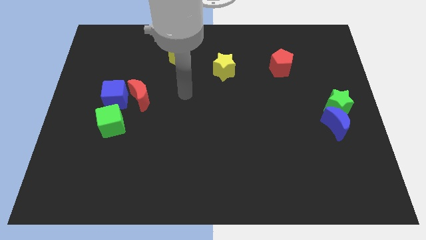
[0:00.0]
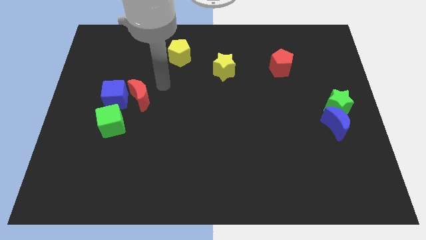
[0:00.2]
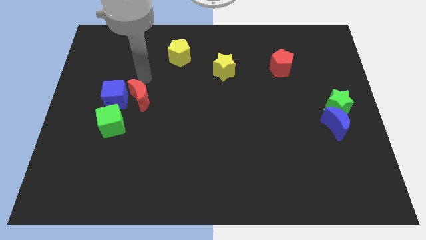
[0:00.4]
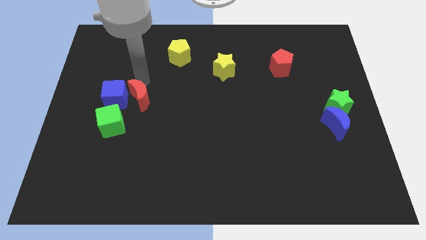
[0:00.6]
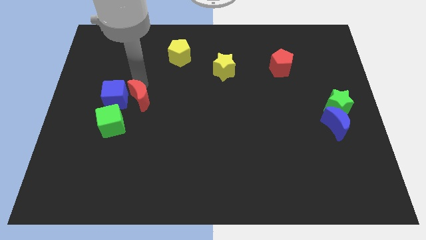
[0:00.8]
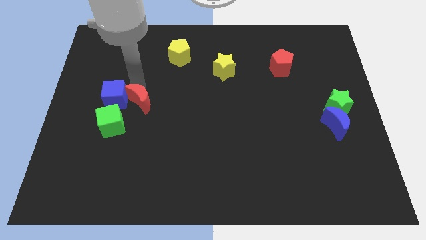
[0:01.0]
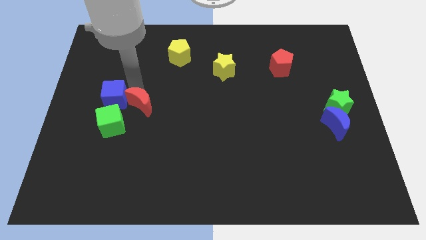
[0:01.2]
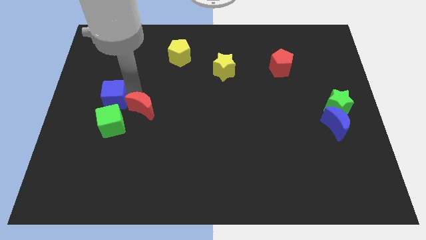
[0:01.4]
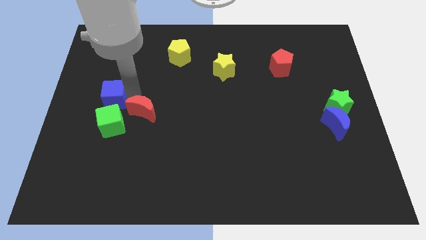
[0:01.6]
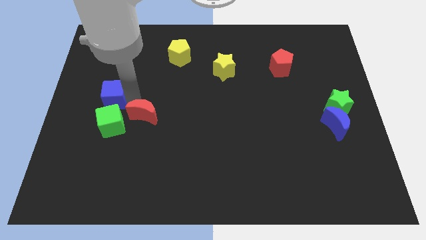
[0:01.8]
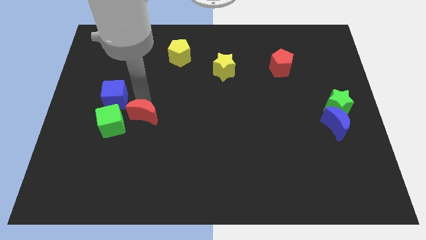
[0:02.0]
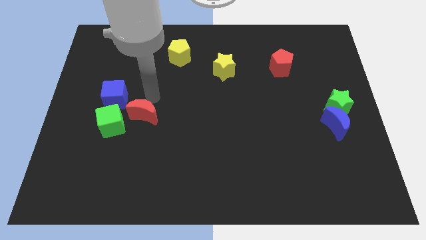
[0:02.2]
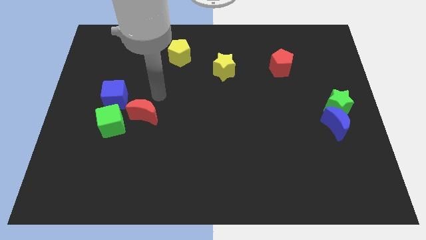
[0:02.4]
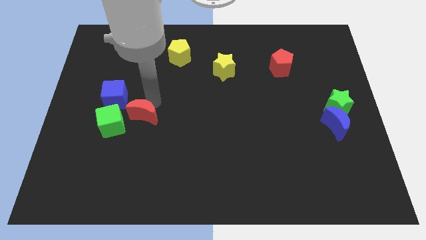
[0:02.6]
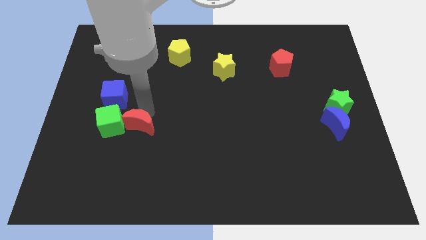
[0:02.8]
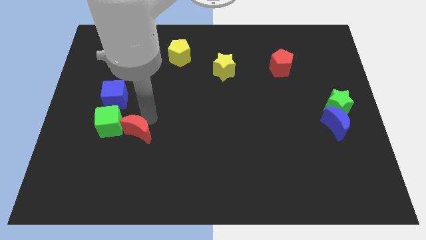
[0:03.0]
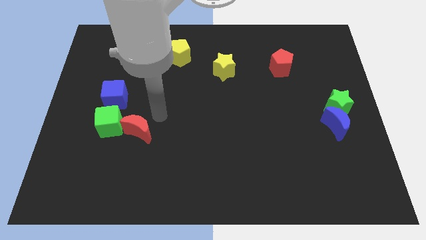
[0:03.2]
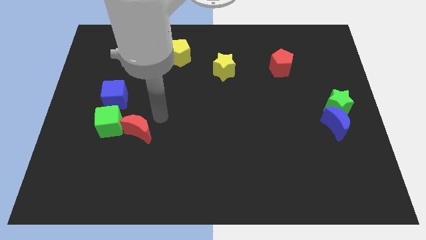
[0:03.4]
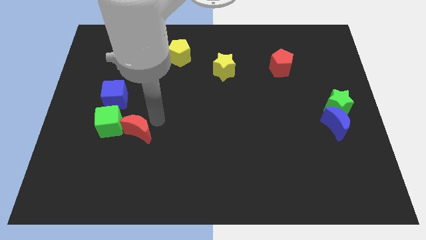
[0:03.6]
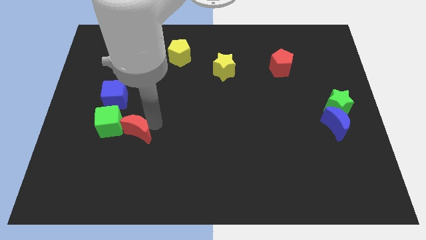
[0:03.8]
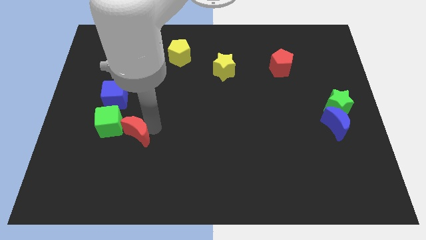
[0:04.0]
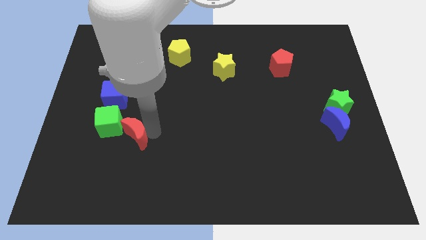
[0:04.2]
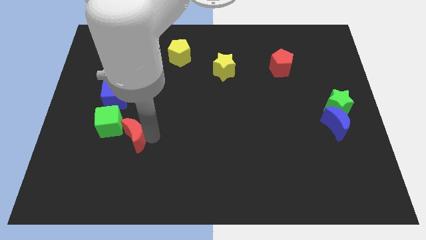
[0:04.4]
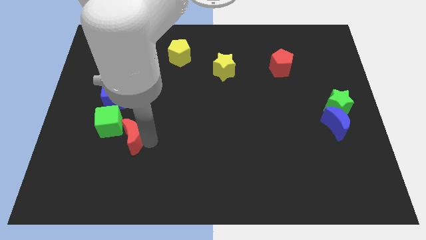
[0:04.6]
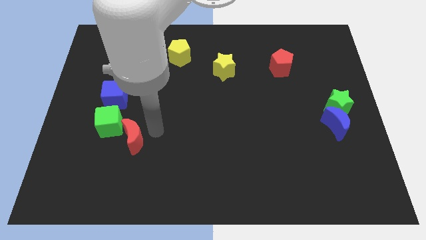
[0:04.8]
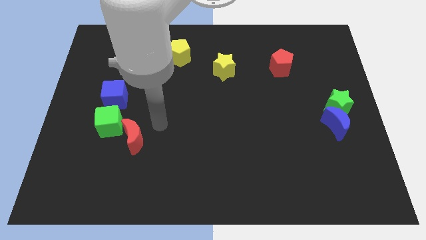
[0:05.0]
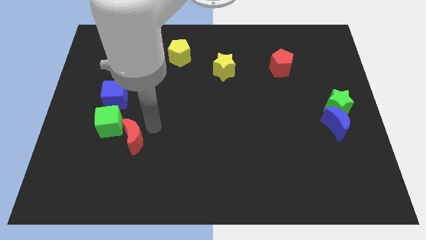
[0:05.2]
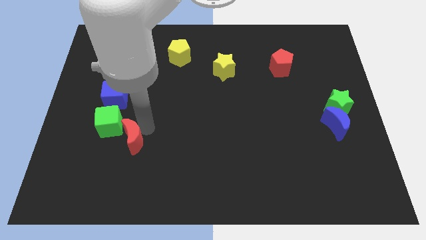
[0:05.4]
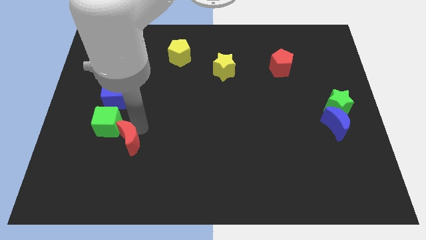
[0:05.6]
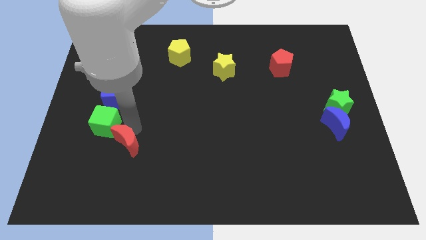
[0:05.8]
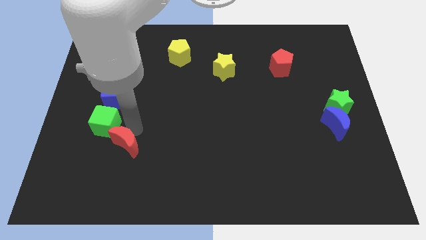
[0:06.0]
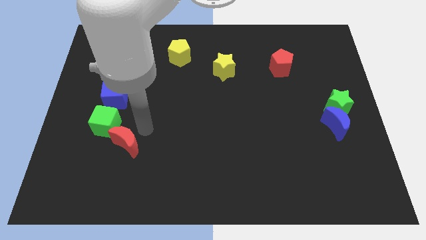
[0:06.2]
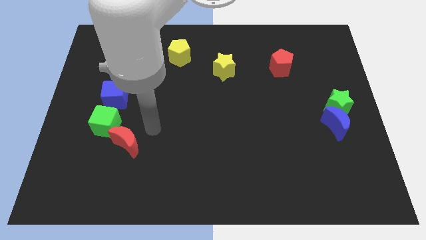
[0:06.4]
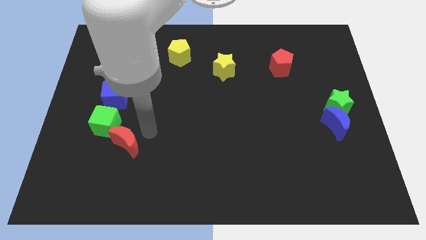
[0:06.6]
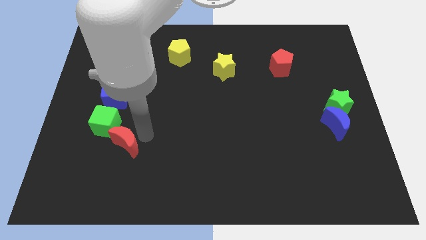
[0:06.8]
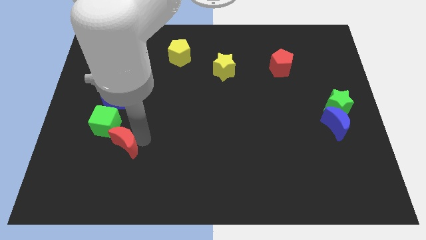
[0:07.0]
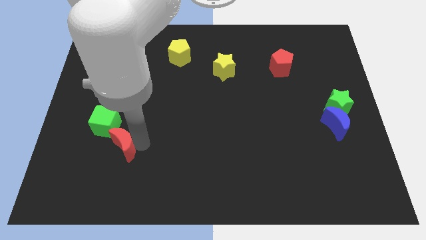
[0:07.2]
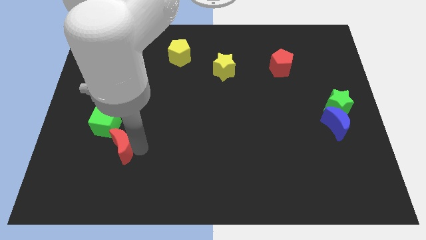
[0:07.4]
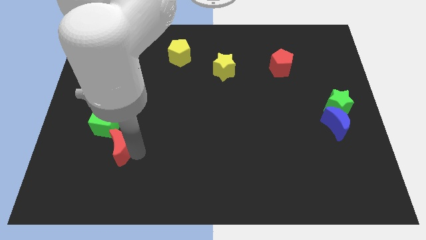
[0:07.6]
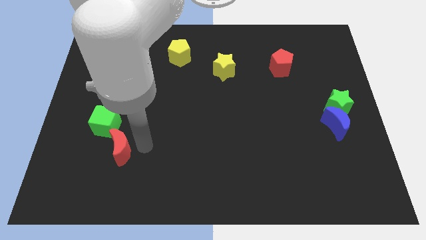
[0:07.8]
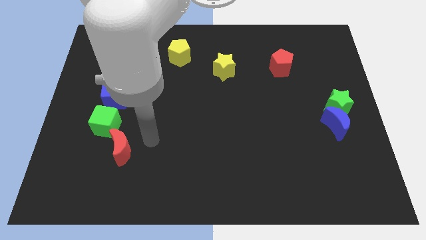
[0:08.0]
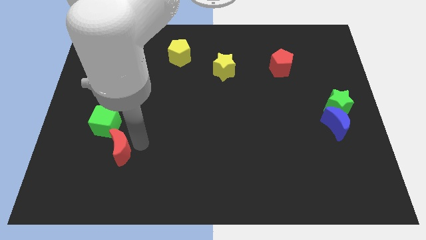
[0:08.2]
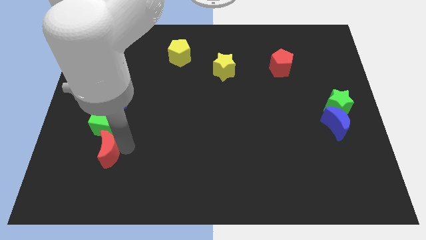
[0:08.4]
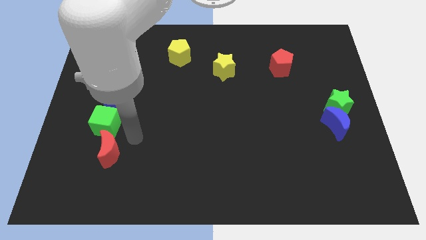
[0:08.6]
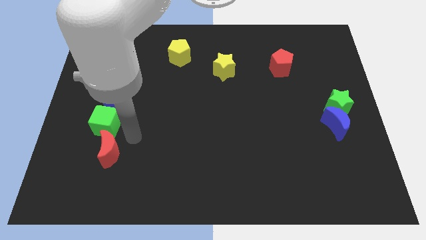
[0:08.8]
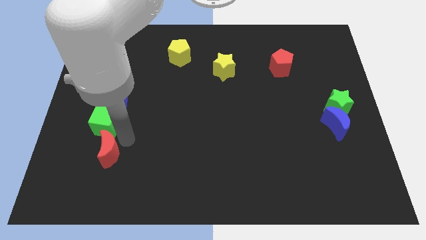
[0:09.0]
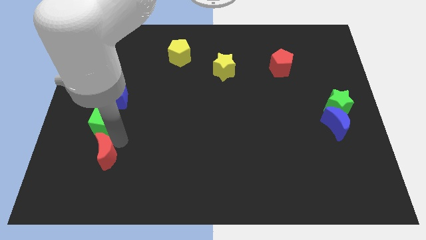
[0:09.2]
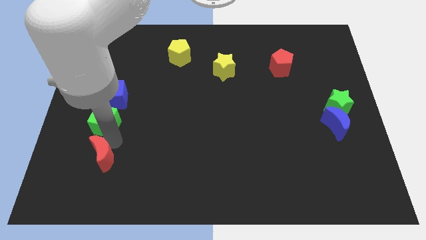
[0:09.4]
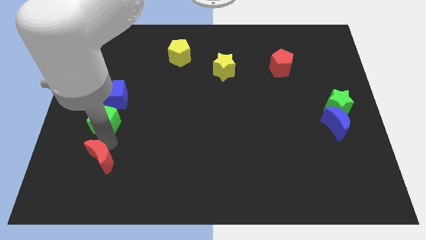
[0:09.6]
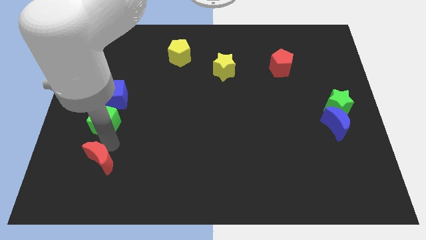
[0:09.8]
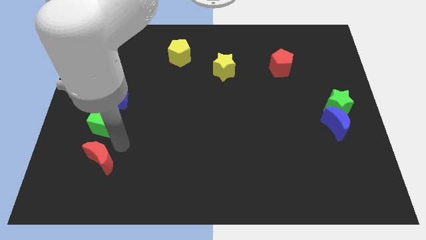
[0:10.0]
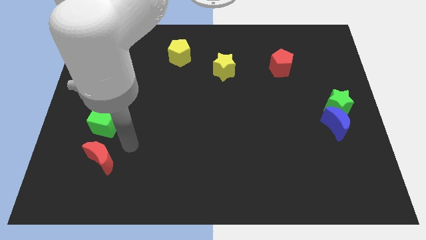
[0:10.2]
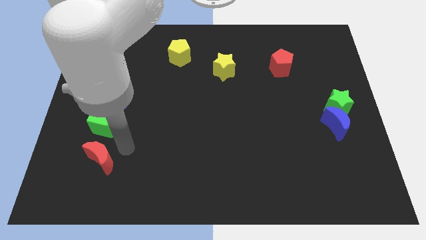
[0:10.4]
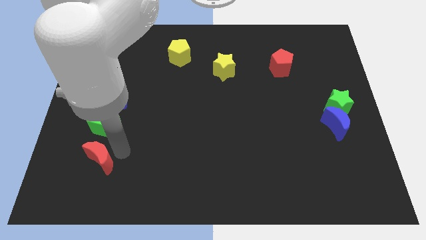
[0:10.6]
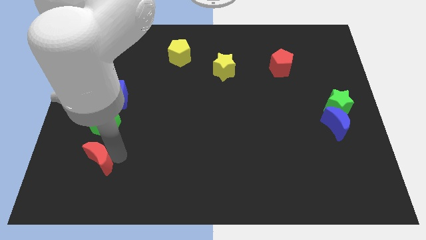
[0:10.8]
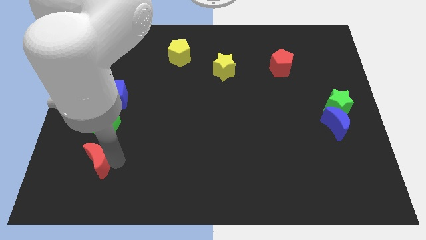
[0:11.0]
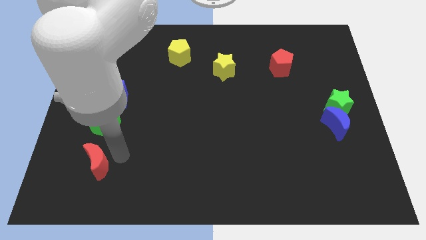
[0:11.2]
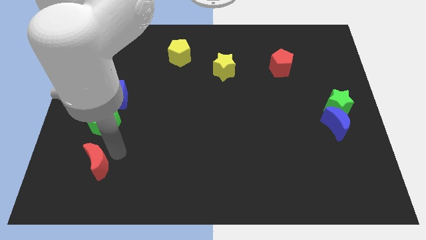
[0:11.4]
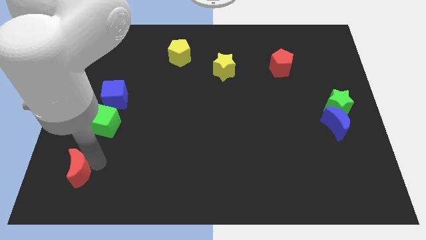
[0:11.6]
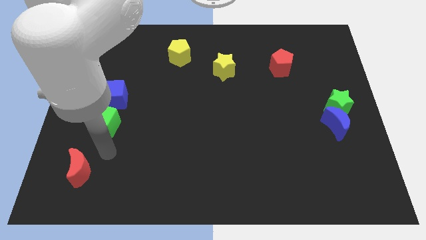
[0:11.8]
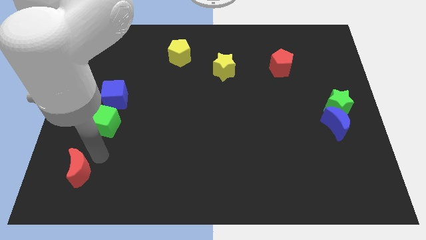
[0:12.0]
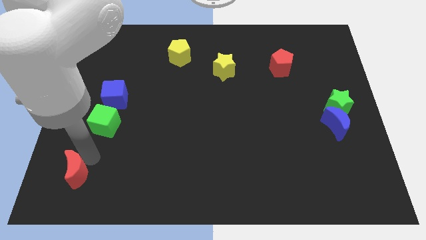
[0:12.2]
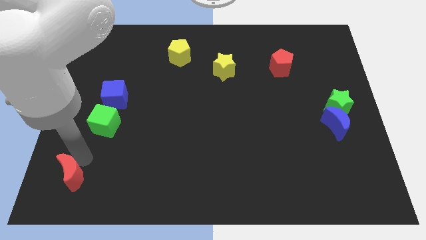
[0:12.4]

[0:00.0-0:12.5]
slide the red moon to the lower left corner
